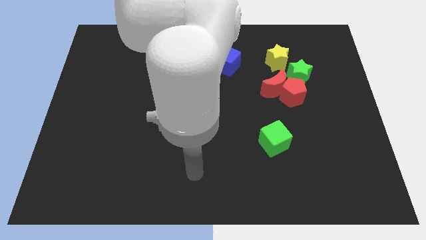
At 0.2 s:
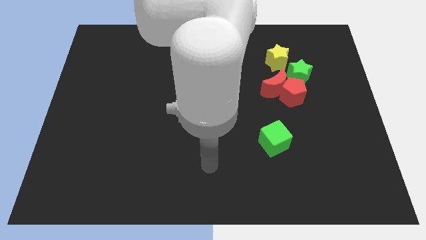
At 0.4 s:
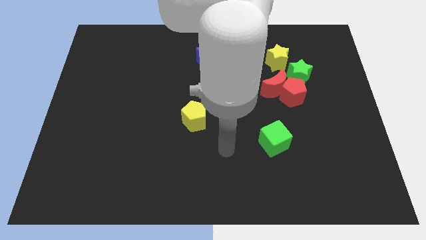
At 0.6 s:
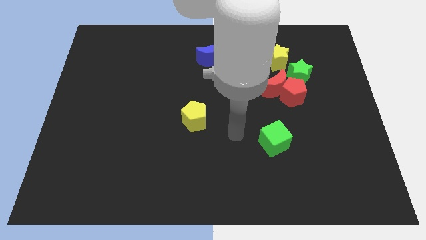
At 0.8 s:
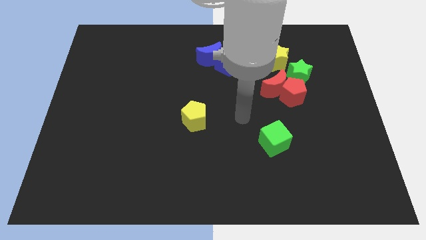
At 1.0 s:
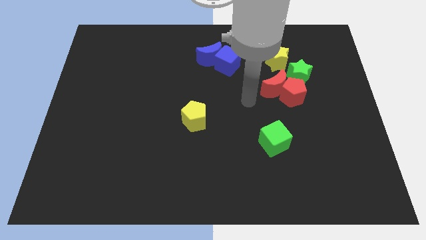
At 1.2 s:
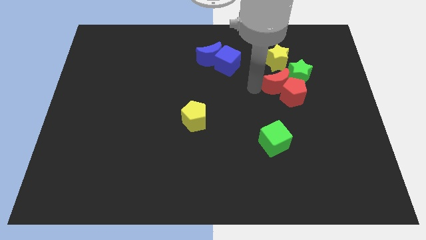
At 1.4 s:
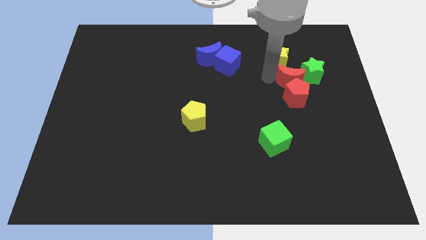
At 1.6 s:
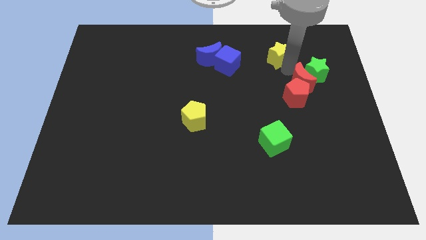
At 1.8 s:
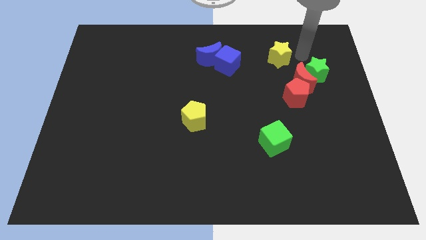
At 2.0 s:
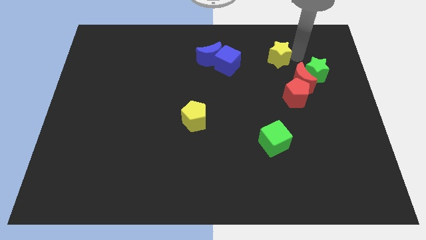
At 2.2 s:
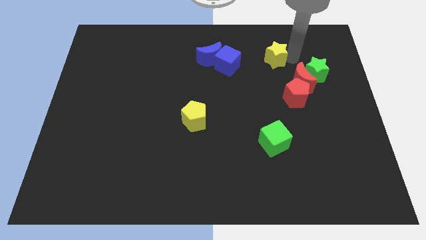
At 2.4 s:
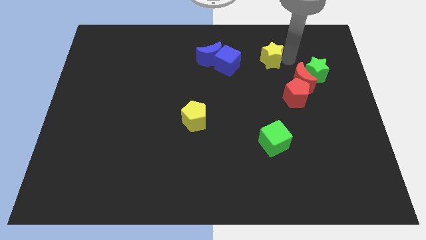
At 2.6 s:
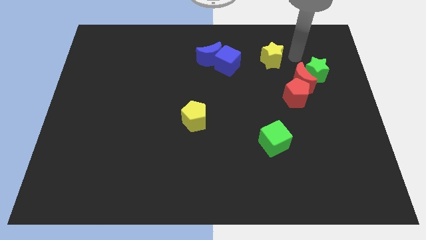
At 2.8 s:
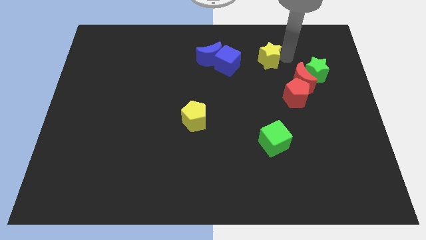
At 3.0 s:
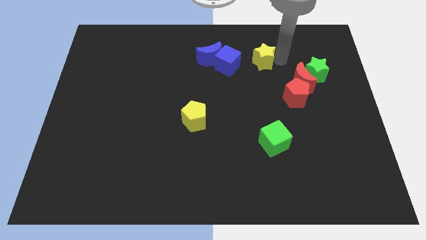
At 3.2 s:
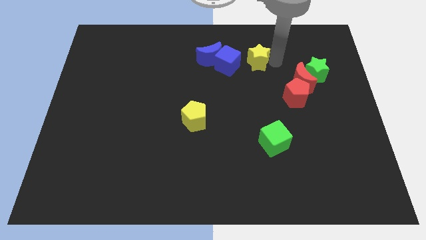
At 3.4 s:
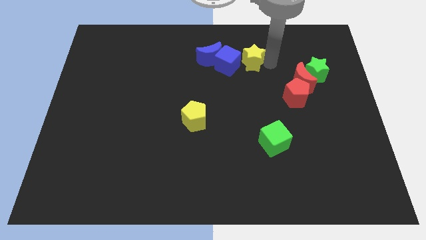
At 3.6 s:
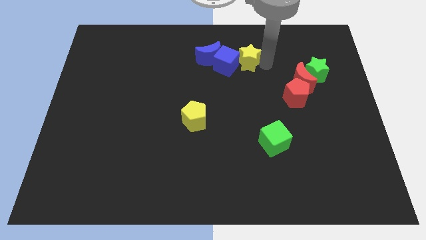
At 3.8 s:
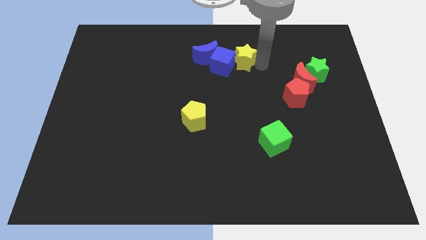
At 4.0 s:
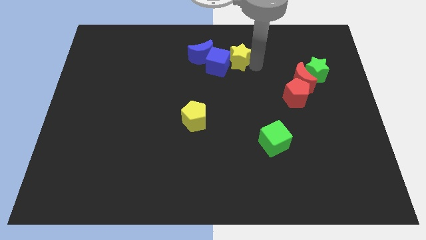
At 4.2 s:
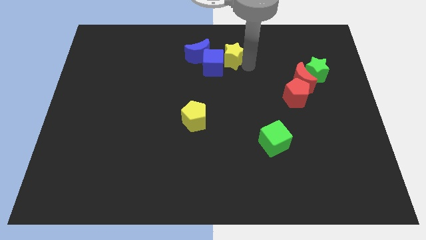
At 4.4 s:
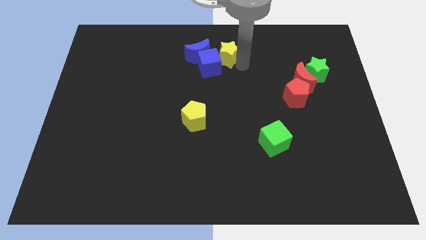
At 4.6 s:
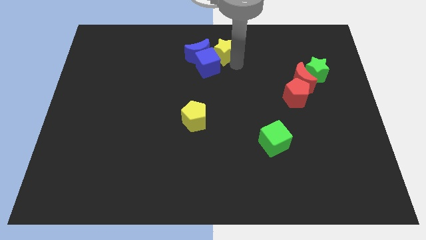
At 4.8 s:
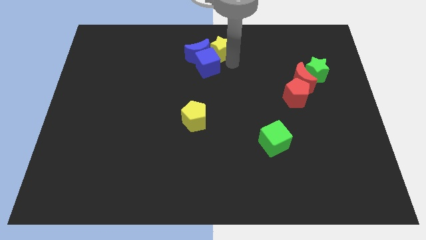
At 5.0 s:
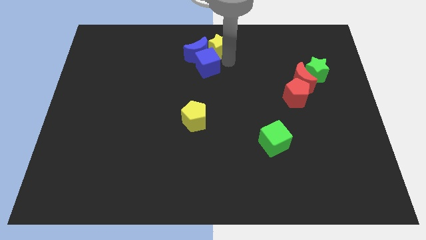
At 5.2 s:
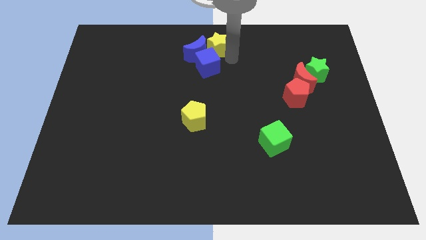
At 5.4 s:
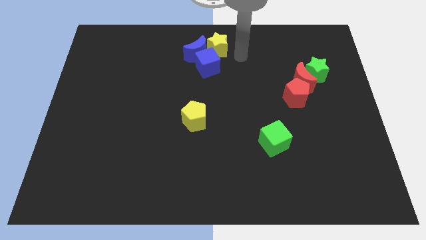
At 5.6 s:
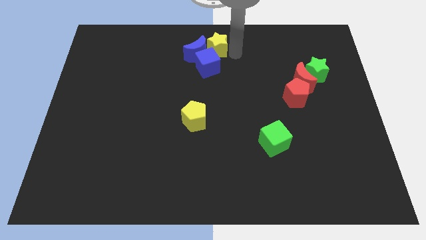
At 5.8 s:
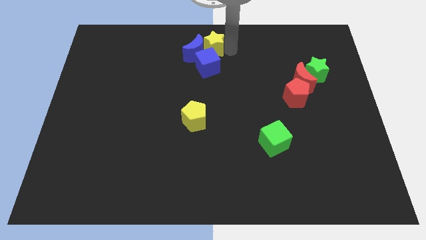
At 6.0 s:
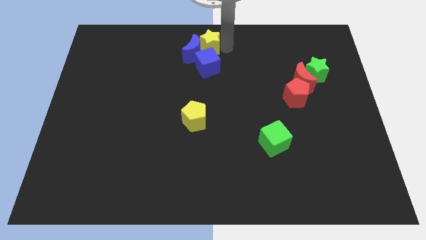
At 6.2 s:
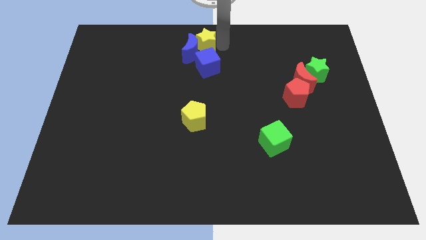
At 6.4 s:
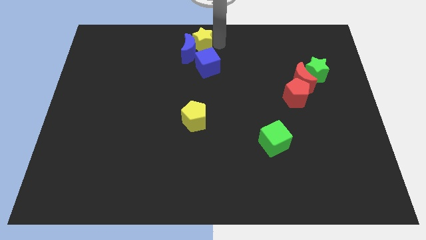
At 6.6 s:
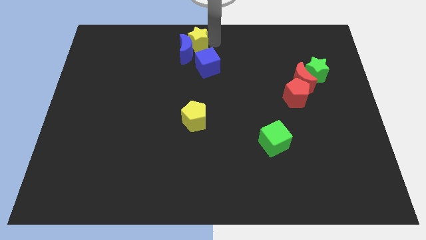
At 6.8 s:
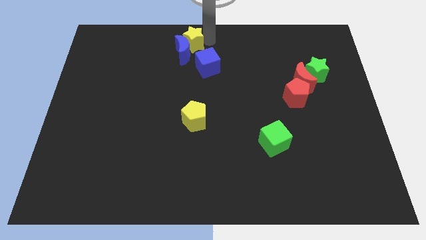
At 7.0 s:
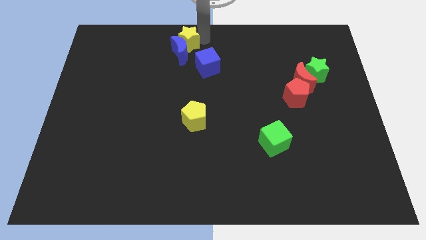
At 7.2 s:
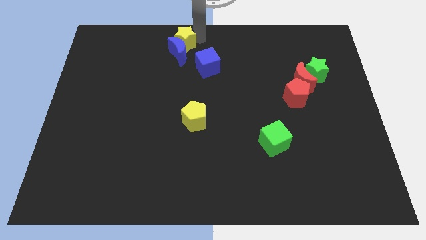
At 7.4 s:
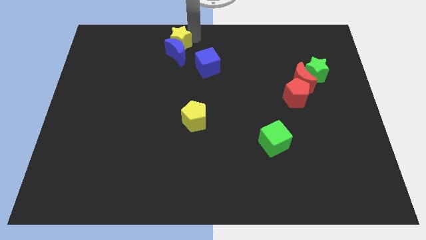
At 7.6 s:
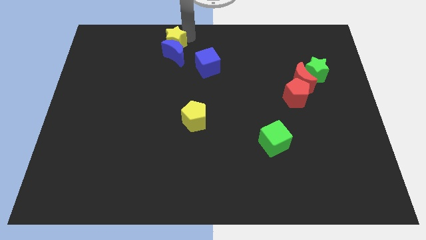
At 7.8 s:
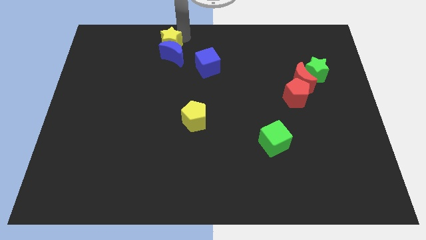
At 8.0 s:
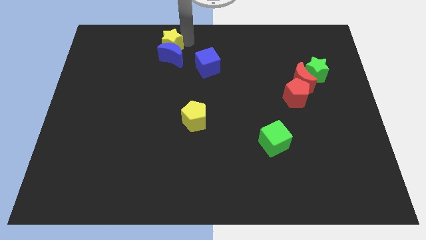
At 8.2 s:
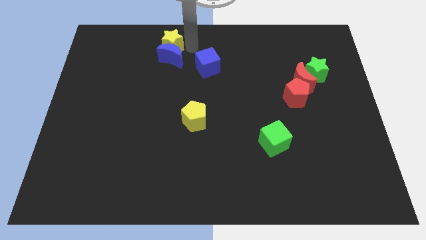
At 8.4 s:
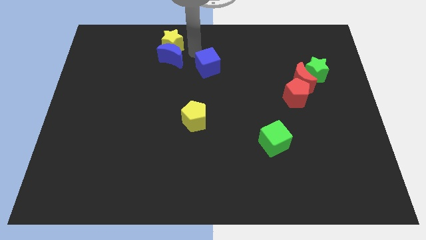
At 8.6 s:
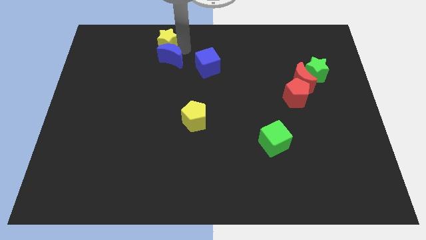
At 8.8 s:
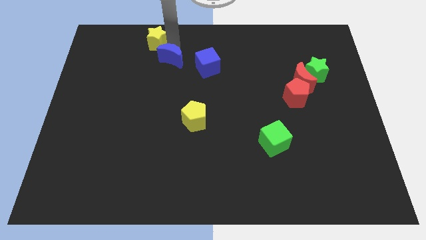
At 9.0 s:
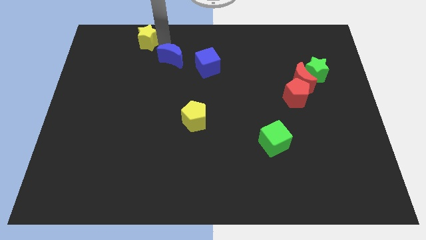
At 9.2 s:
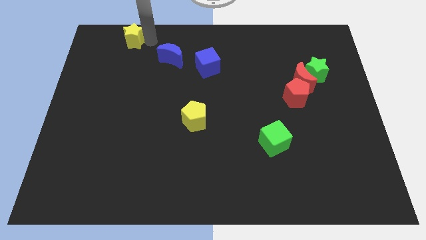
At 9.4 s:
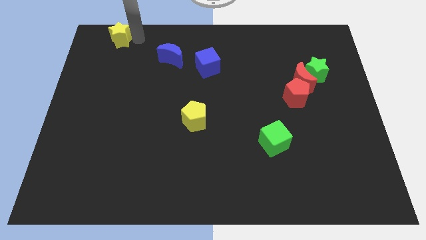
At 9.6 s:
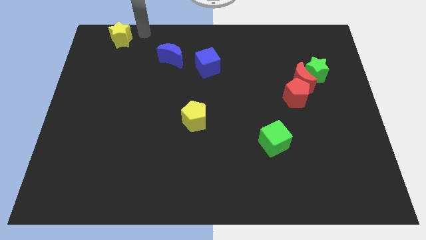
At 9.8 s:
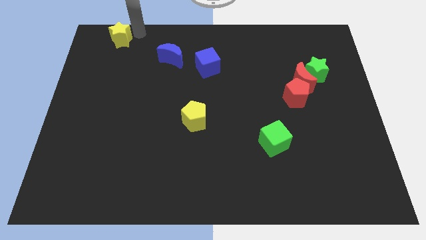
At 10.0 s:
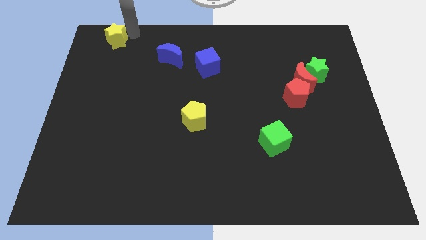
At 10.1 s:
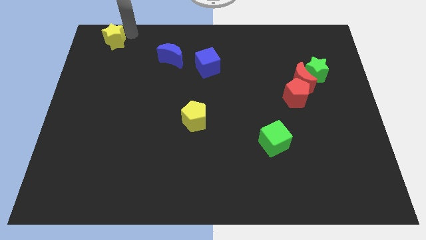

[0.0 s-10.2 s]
put the yellow star to the upper left corner

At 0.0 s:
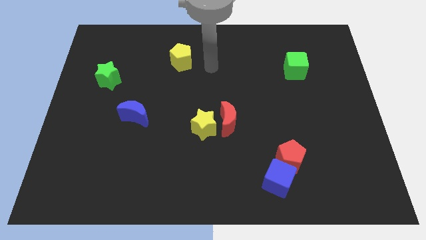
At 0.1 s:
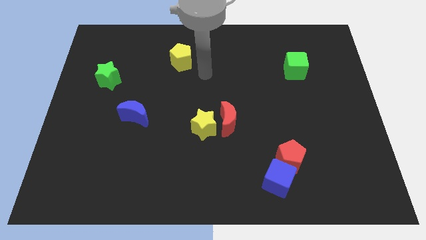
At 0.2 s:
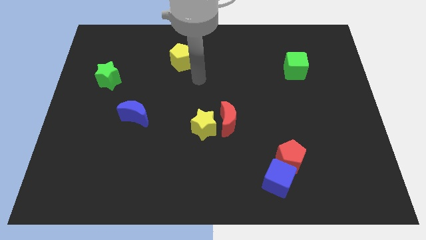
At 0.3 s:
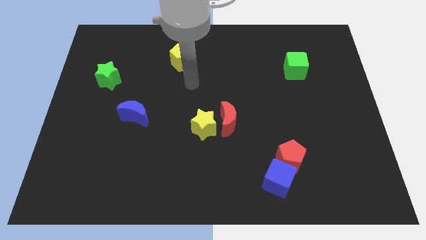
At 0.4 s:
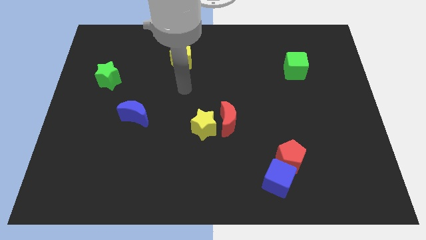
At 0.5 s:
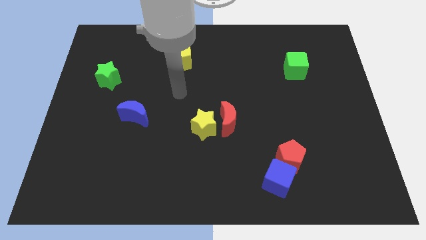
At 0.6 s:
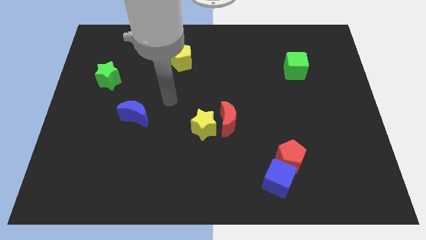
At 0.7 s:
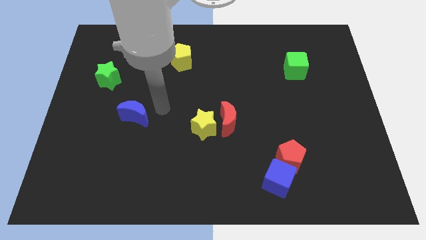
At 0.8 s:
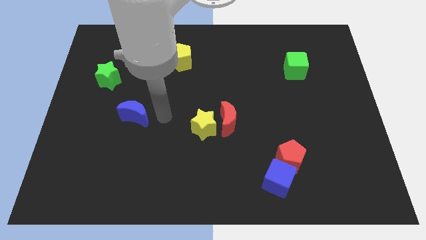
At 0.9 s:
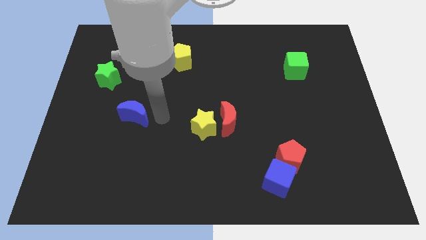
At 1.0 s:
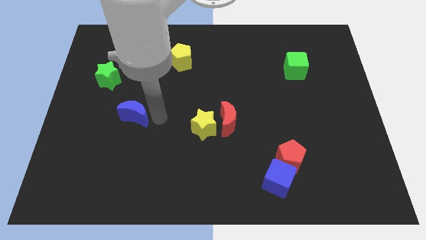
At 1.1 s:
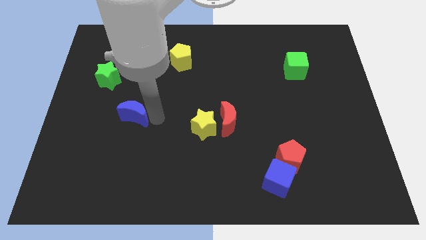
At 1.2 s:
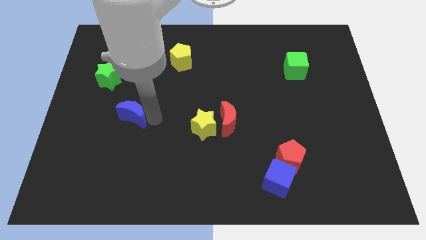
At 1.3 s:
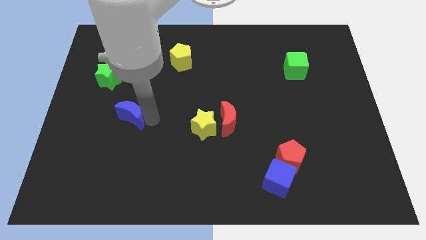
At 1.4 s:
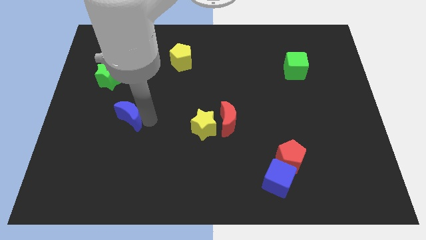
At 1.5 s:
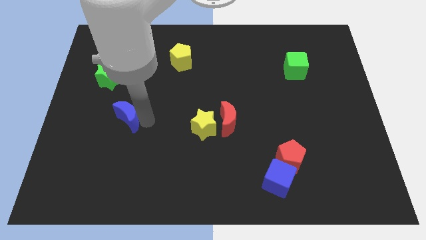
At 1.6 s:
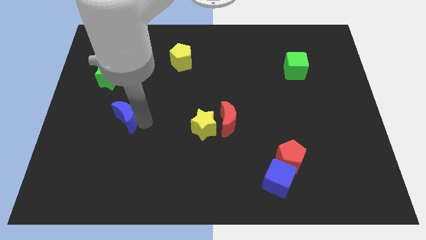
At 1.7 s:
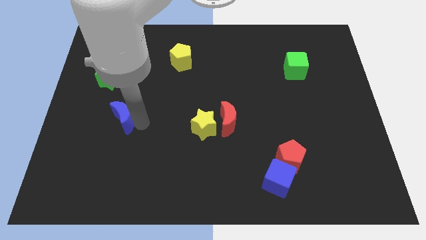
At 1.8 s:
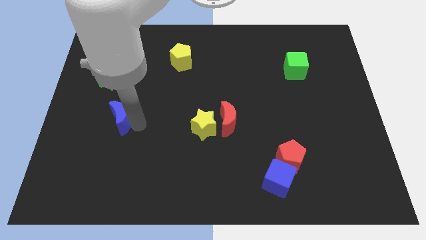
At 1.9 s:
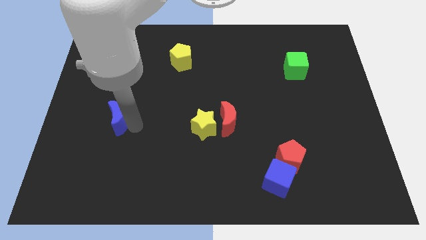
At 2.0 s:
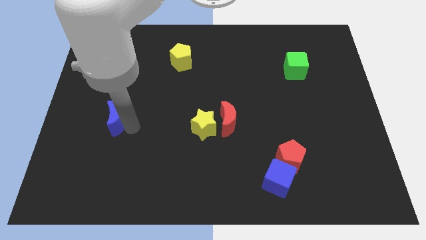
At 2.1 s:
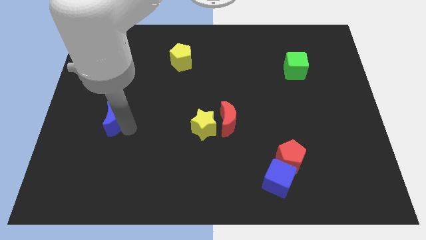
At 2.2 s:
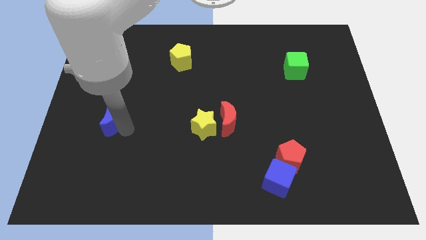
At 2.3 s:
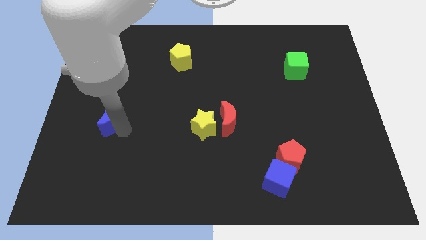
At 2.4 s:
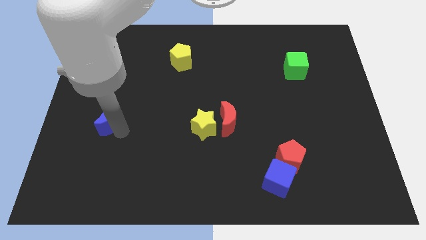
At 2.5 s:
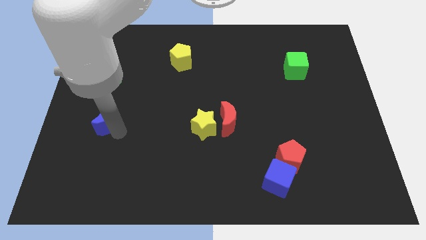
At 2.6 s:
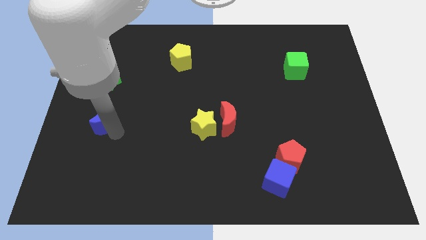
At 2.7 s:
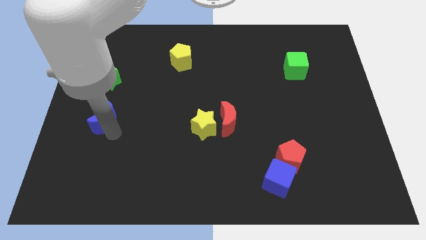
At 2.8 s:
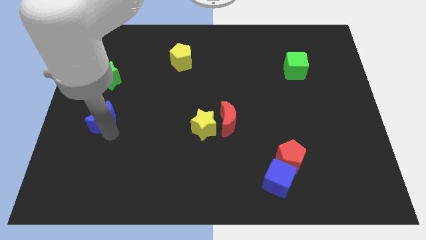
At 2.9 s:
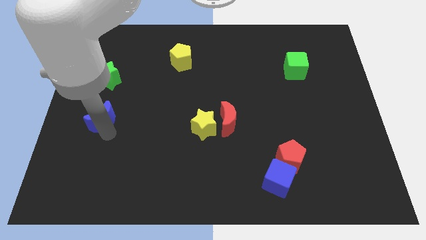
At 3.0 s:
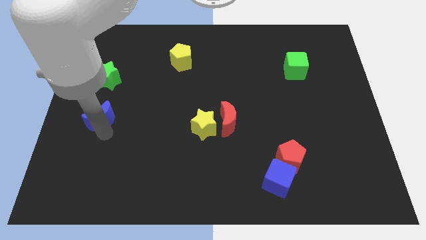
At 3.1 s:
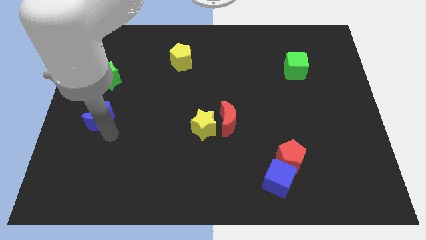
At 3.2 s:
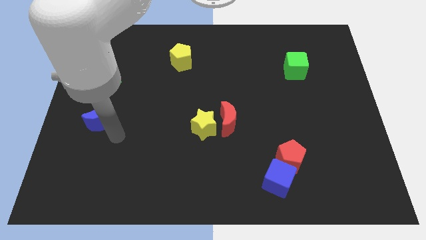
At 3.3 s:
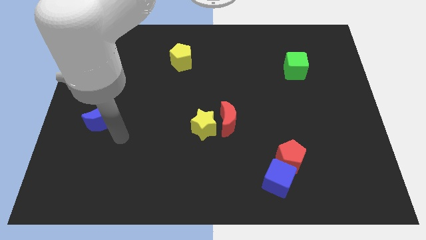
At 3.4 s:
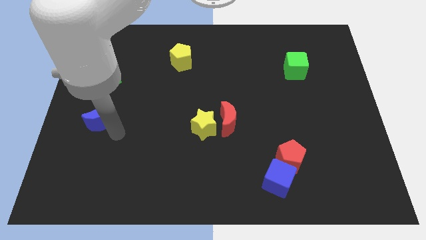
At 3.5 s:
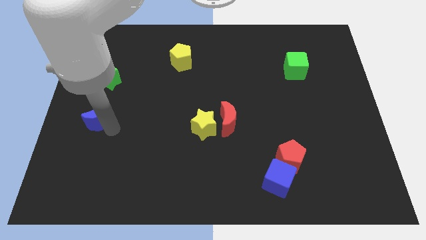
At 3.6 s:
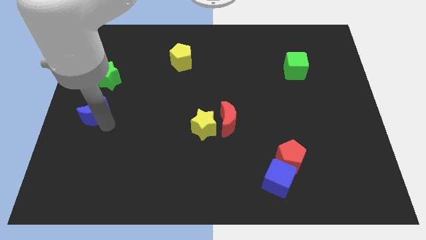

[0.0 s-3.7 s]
put the blue moon to the left side
